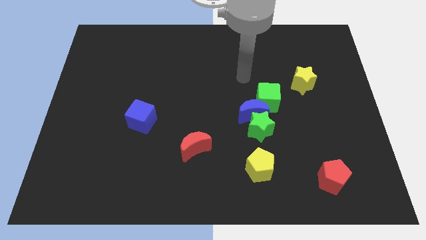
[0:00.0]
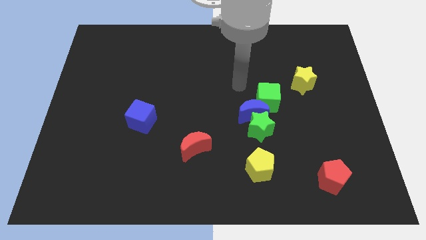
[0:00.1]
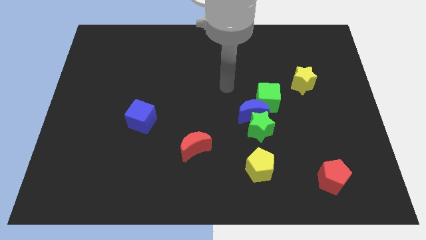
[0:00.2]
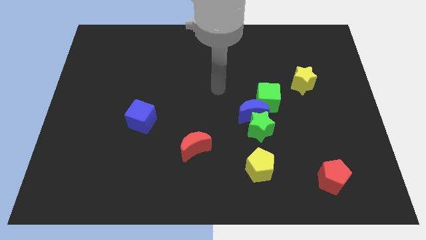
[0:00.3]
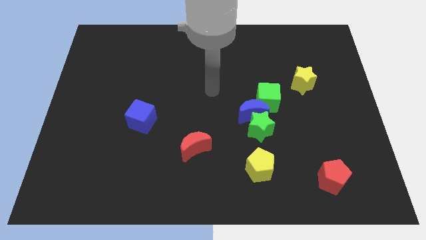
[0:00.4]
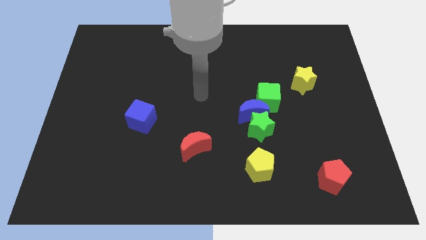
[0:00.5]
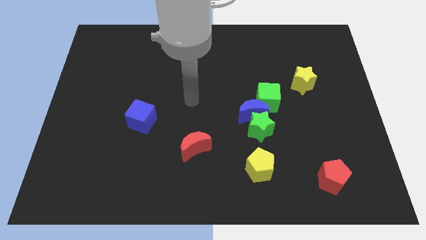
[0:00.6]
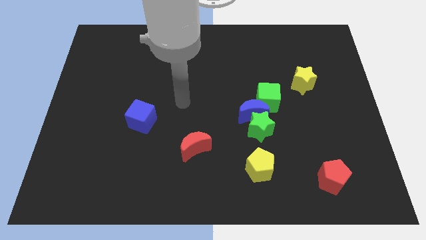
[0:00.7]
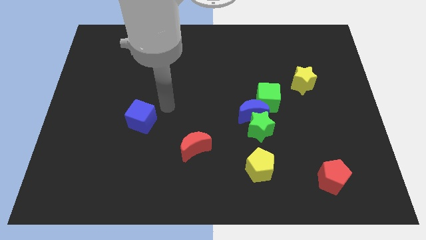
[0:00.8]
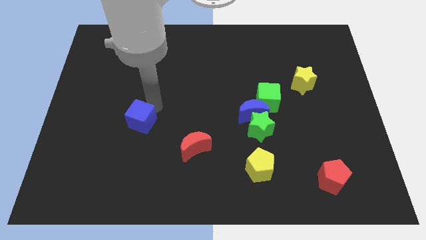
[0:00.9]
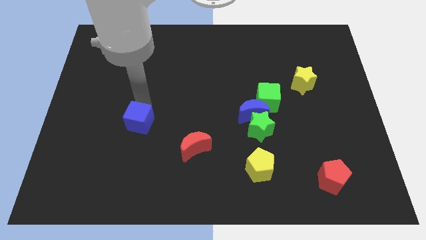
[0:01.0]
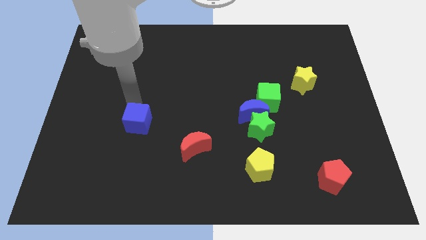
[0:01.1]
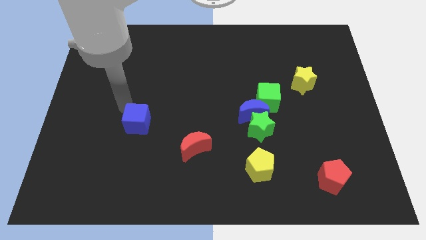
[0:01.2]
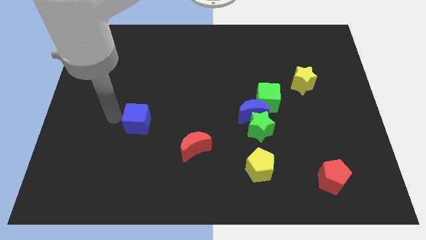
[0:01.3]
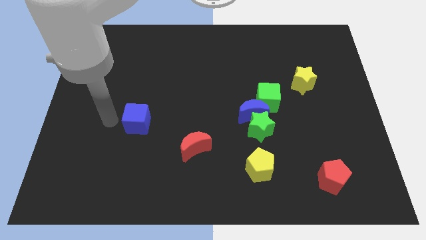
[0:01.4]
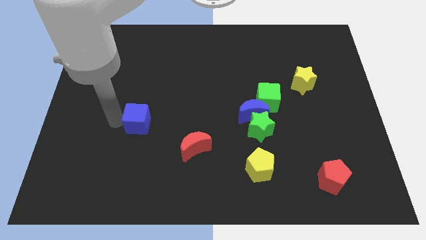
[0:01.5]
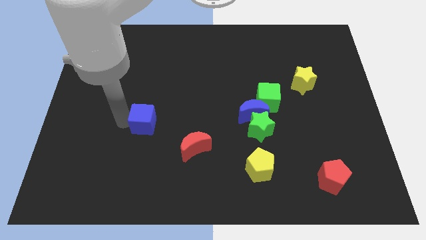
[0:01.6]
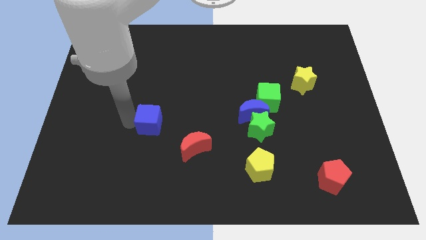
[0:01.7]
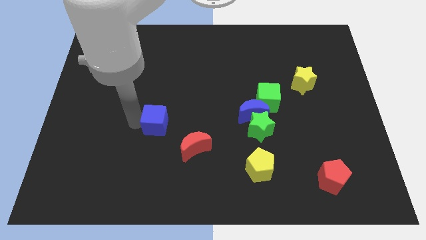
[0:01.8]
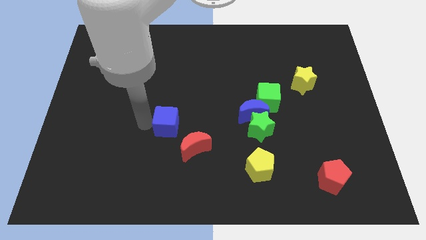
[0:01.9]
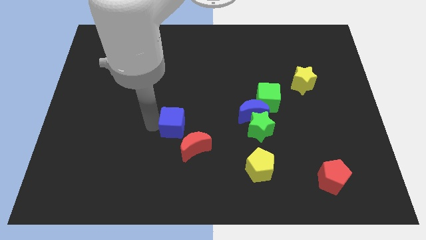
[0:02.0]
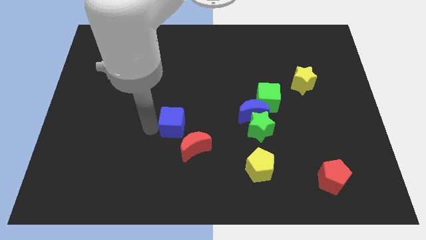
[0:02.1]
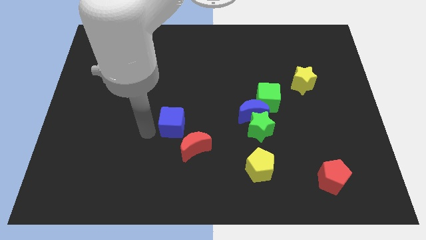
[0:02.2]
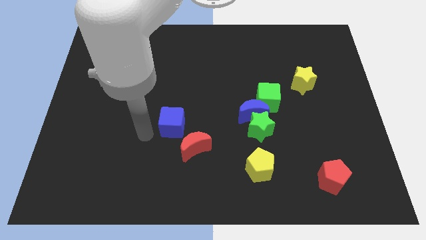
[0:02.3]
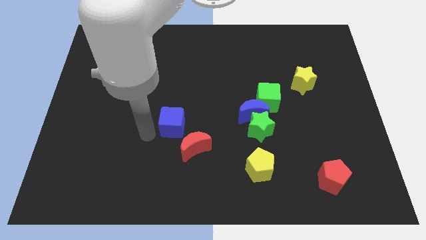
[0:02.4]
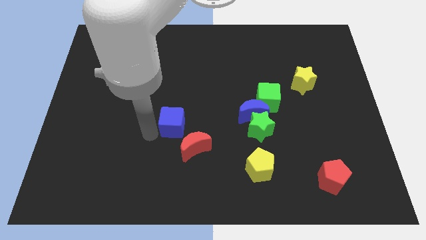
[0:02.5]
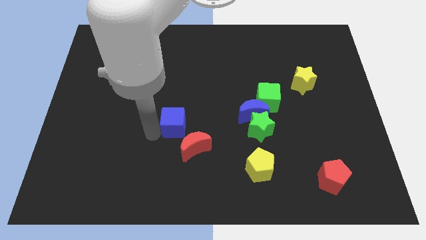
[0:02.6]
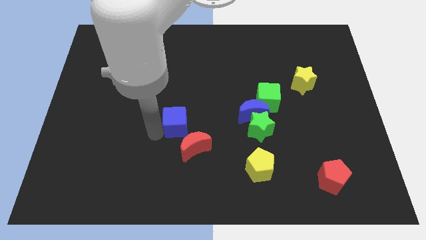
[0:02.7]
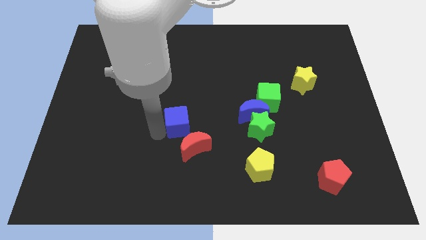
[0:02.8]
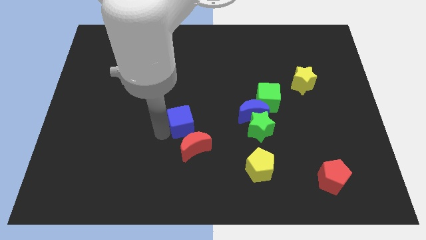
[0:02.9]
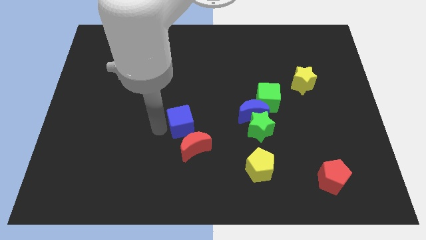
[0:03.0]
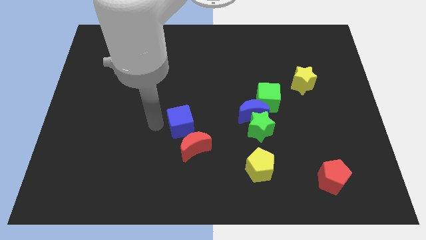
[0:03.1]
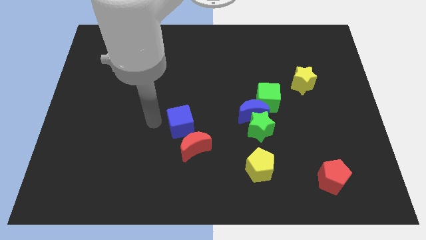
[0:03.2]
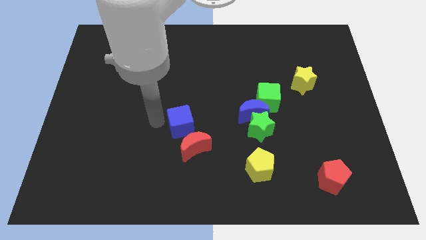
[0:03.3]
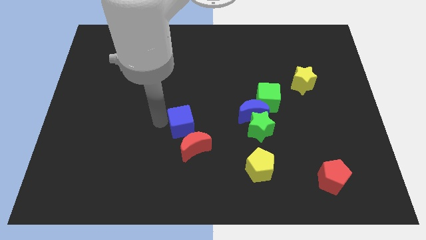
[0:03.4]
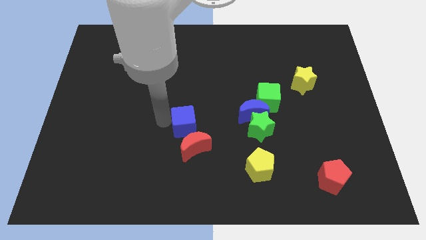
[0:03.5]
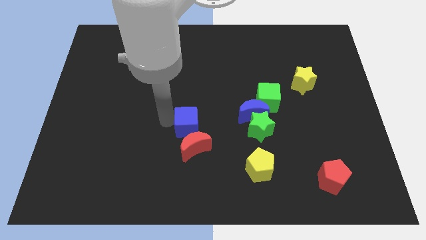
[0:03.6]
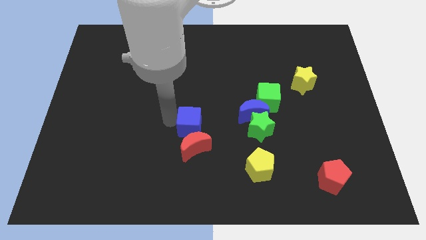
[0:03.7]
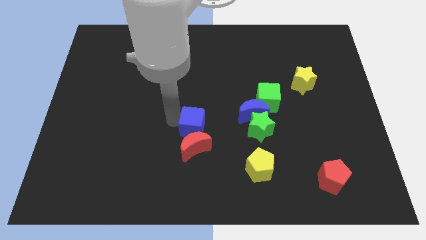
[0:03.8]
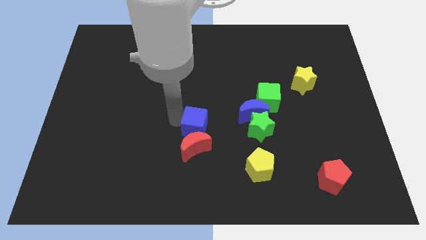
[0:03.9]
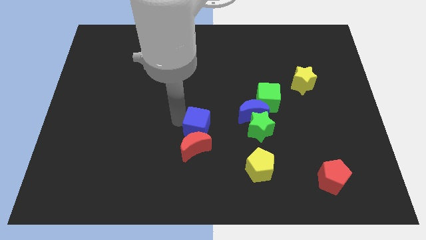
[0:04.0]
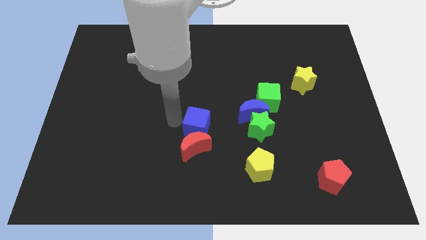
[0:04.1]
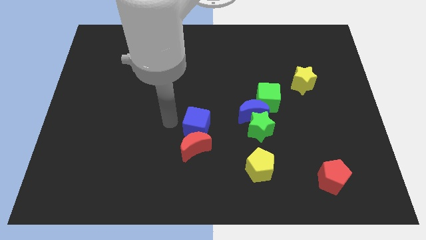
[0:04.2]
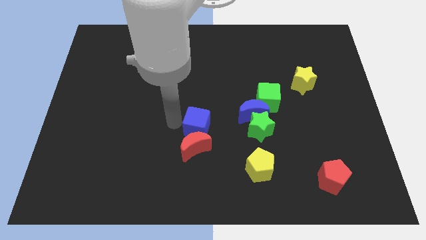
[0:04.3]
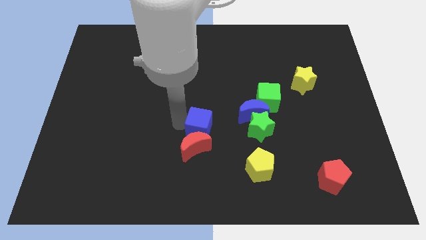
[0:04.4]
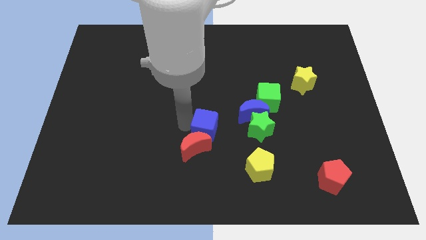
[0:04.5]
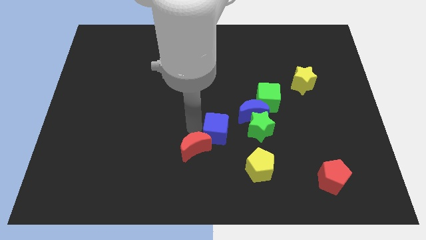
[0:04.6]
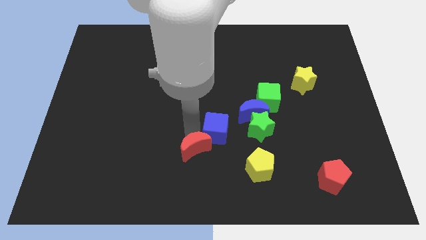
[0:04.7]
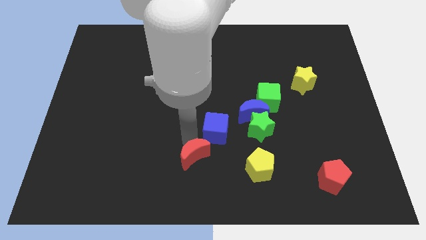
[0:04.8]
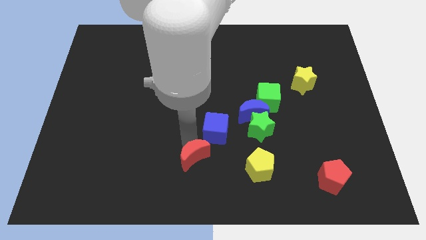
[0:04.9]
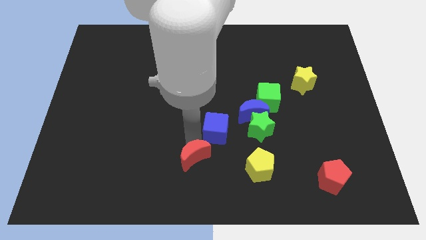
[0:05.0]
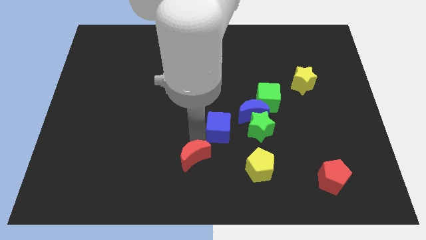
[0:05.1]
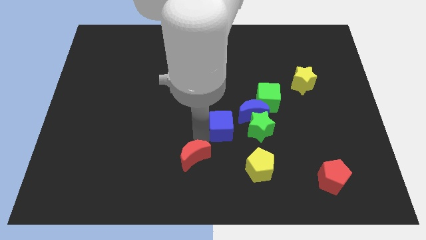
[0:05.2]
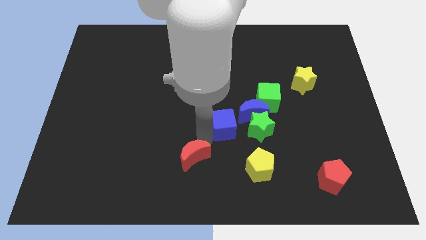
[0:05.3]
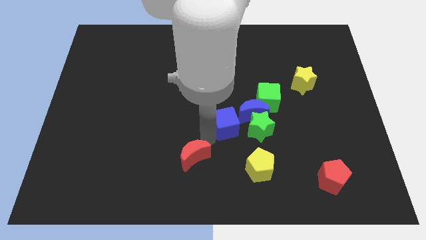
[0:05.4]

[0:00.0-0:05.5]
move the blue cube diagonally down and to the left of the green cube

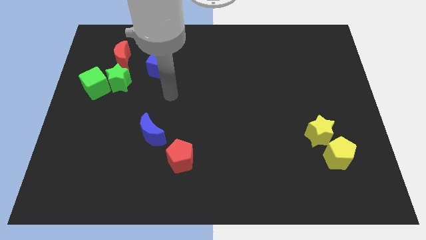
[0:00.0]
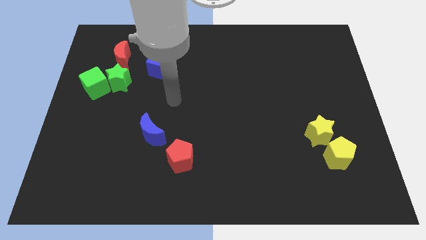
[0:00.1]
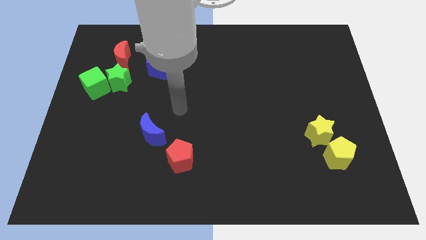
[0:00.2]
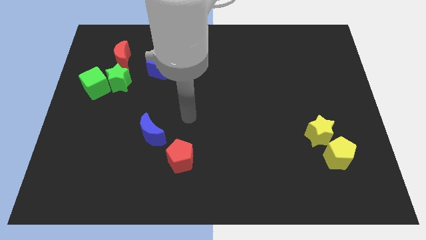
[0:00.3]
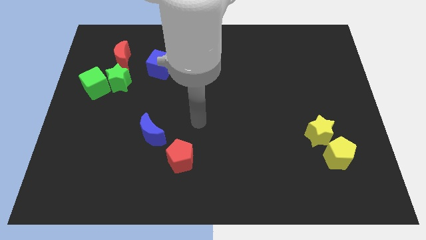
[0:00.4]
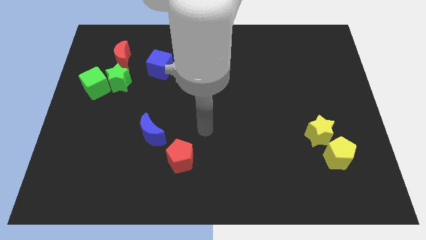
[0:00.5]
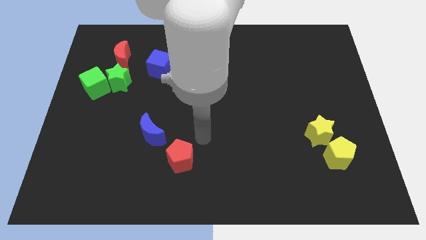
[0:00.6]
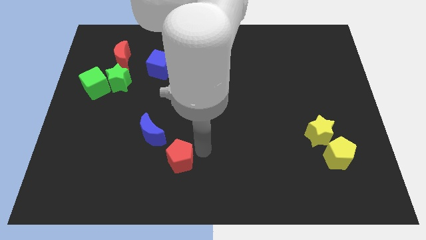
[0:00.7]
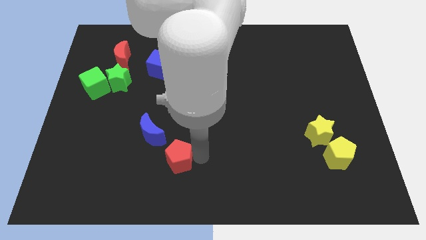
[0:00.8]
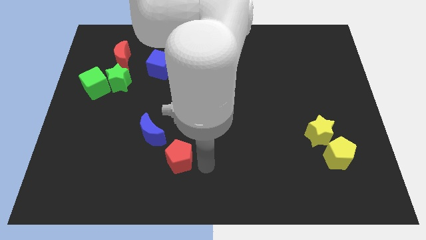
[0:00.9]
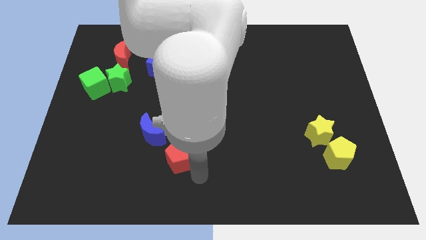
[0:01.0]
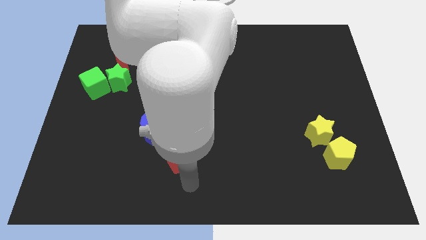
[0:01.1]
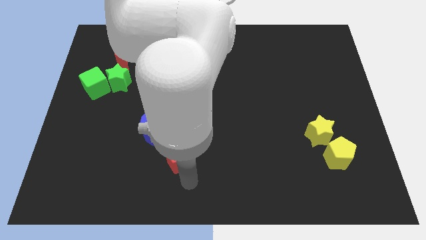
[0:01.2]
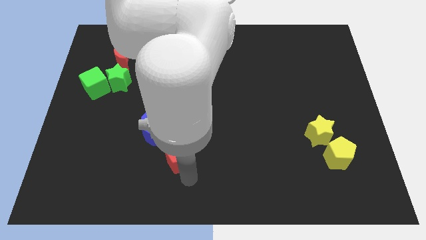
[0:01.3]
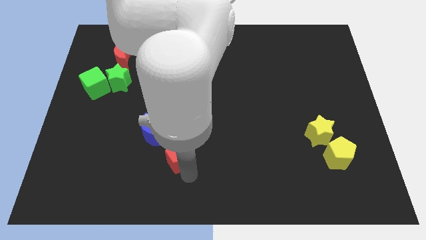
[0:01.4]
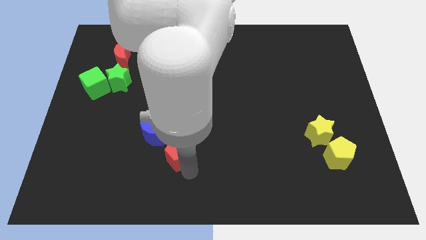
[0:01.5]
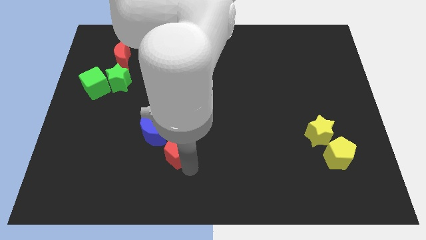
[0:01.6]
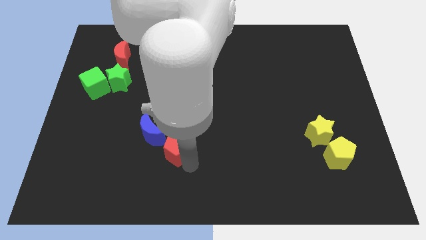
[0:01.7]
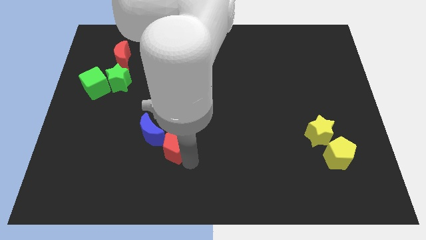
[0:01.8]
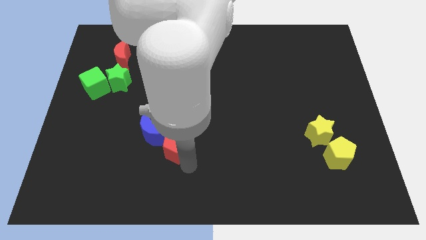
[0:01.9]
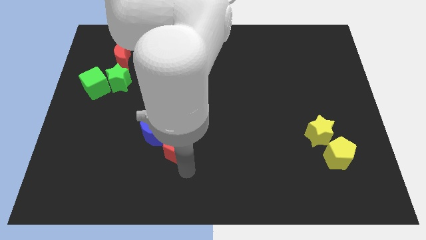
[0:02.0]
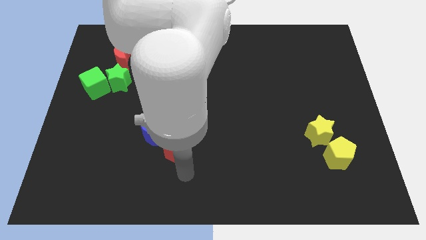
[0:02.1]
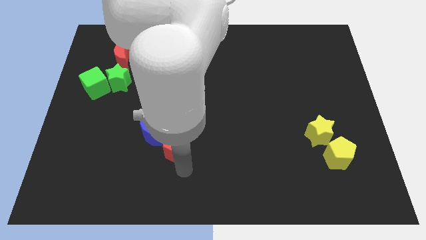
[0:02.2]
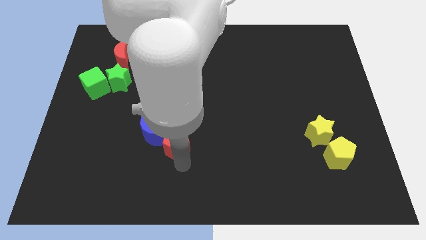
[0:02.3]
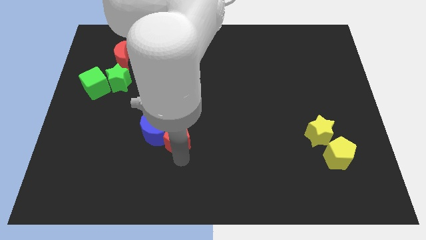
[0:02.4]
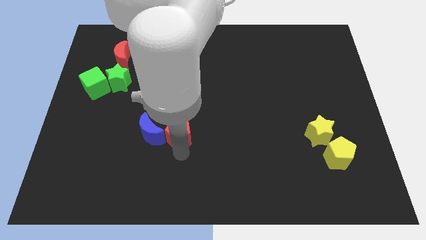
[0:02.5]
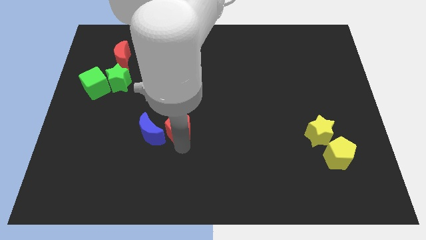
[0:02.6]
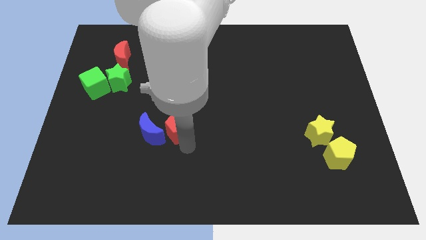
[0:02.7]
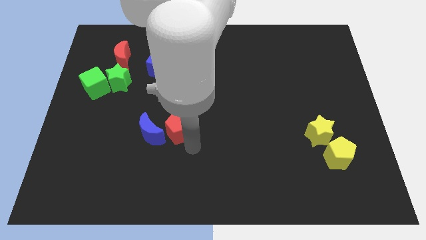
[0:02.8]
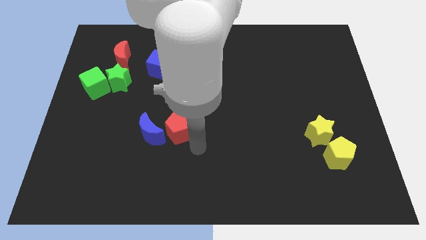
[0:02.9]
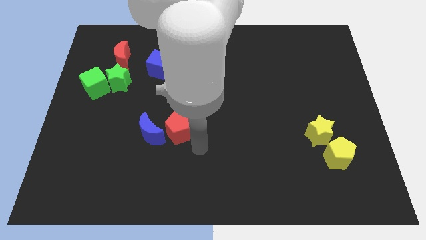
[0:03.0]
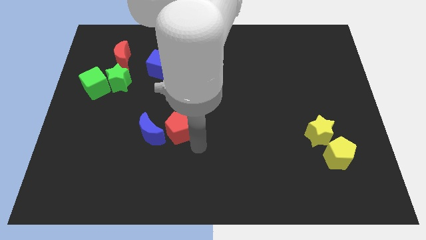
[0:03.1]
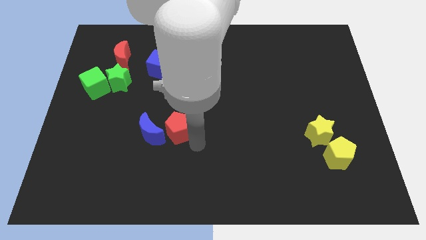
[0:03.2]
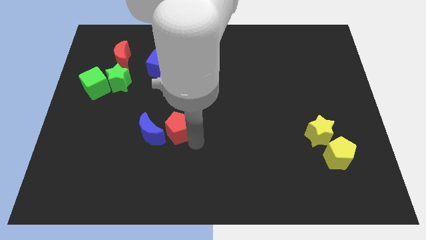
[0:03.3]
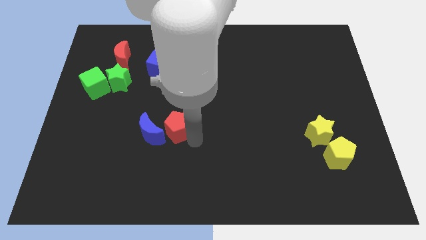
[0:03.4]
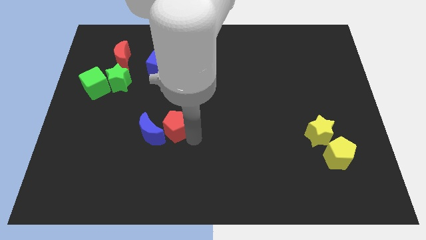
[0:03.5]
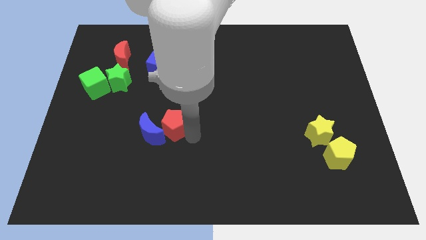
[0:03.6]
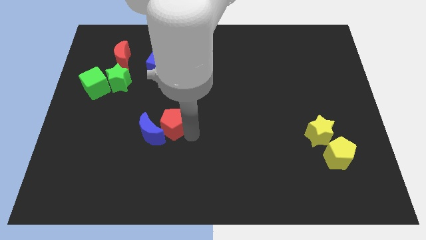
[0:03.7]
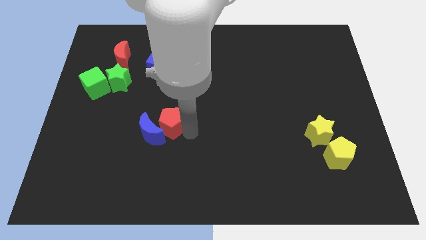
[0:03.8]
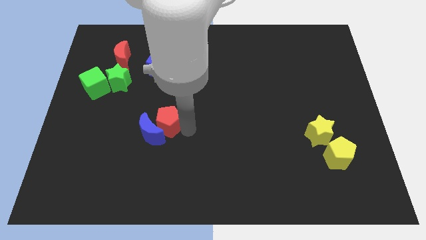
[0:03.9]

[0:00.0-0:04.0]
push the red pentagon to the top of the blue moon
